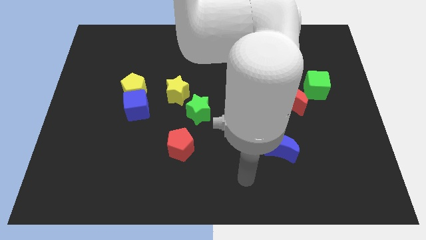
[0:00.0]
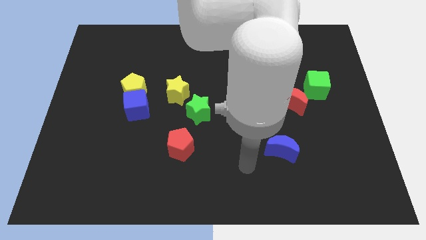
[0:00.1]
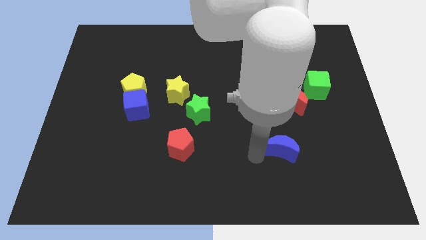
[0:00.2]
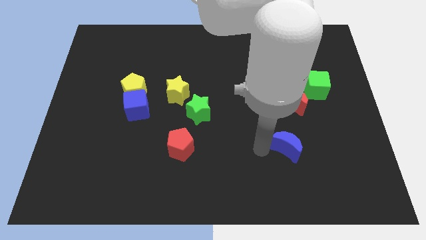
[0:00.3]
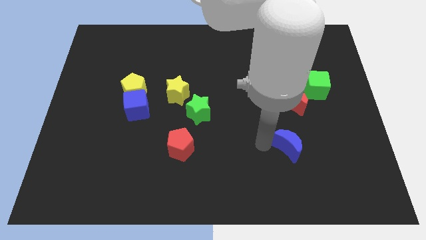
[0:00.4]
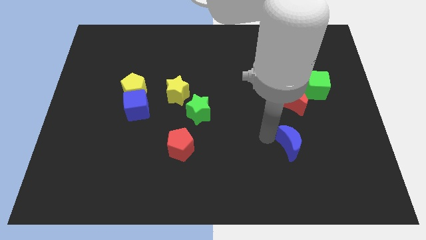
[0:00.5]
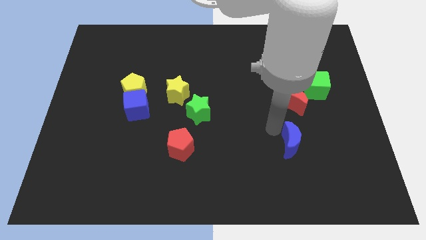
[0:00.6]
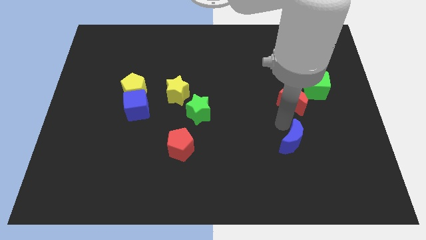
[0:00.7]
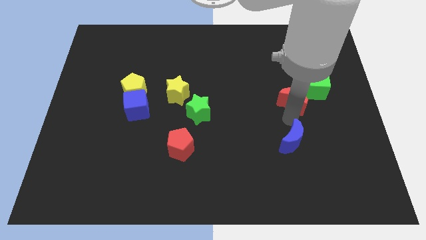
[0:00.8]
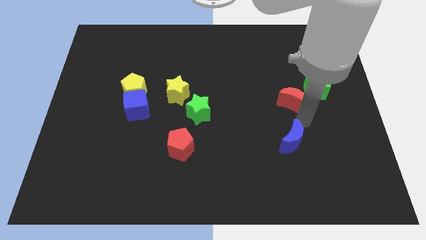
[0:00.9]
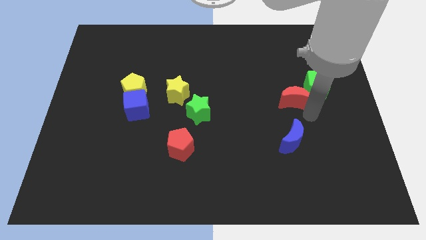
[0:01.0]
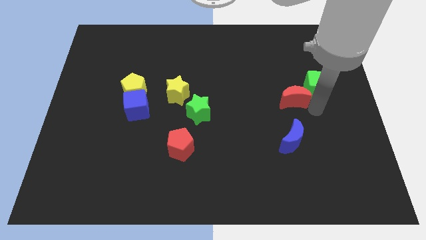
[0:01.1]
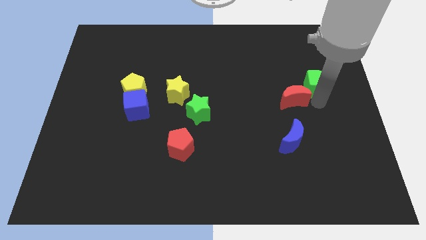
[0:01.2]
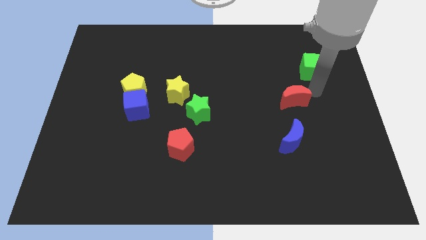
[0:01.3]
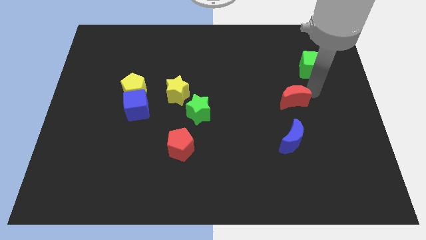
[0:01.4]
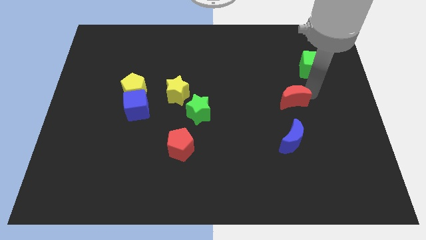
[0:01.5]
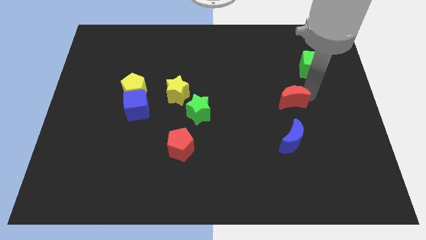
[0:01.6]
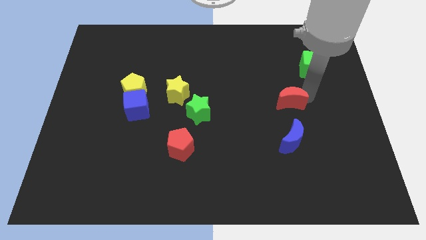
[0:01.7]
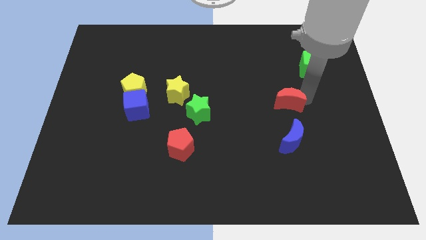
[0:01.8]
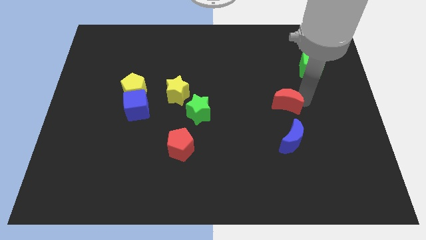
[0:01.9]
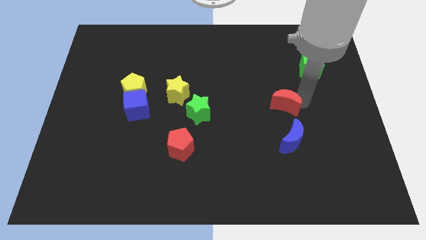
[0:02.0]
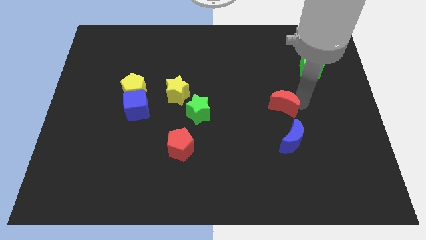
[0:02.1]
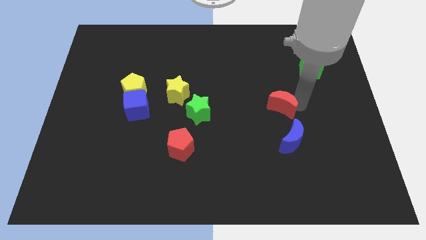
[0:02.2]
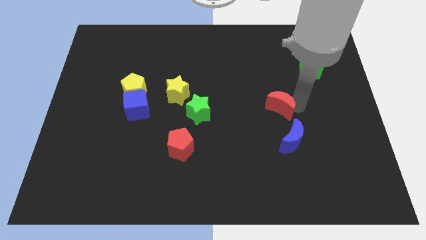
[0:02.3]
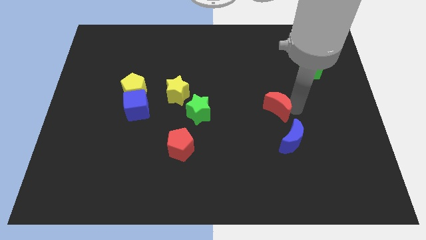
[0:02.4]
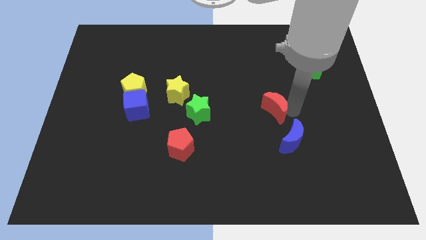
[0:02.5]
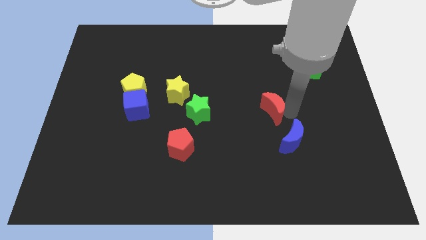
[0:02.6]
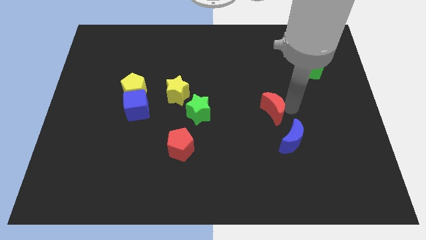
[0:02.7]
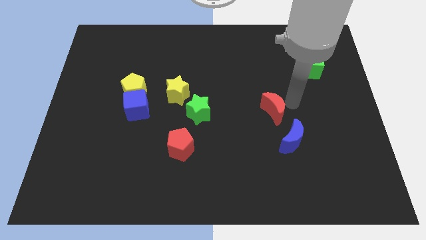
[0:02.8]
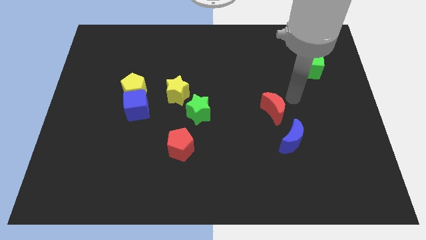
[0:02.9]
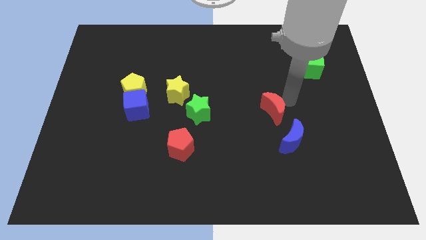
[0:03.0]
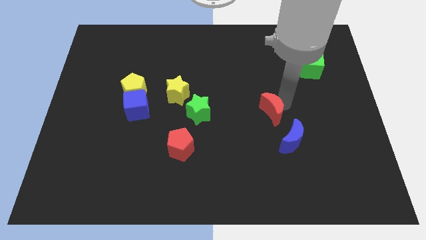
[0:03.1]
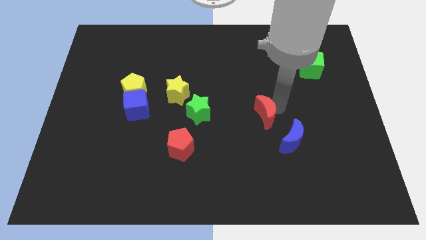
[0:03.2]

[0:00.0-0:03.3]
slightly push the red moon diagonally down and to the left

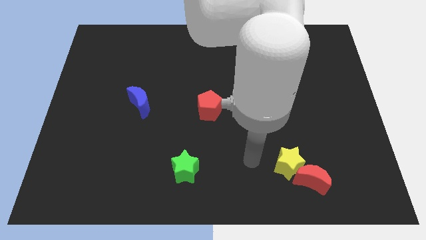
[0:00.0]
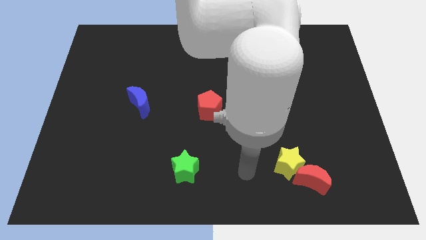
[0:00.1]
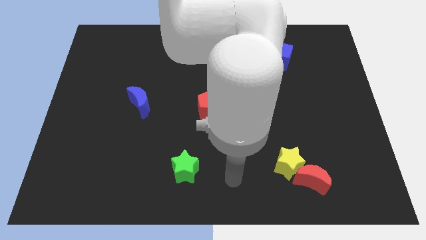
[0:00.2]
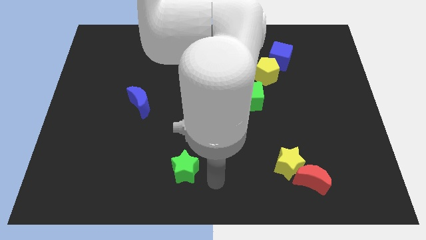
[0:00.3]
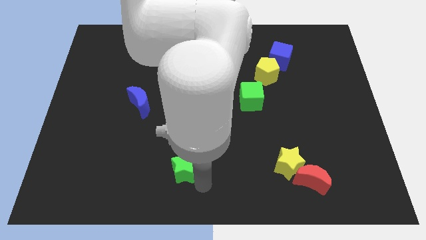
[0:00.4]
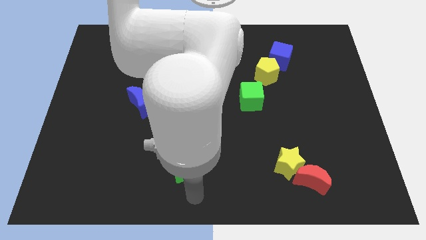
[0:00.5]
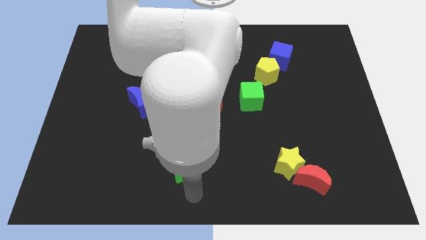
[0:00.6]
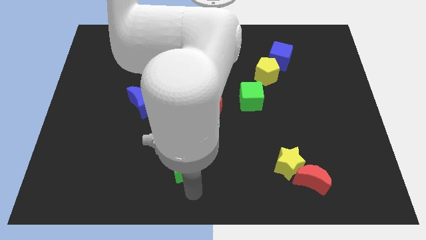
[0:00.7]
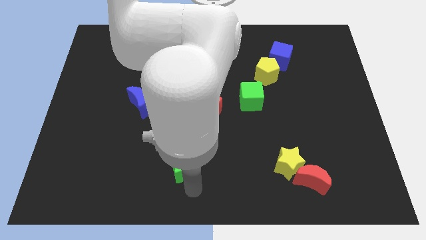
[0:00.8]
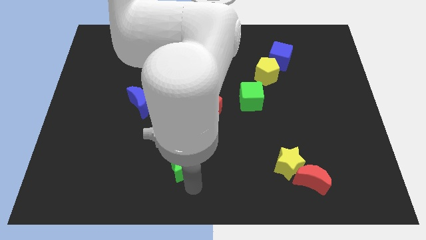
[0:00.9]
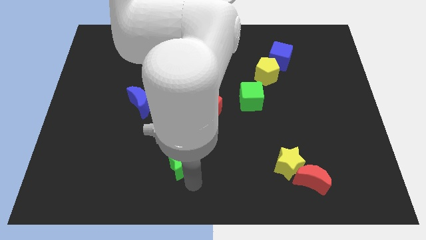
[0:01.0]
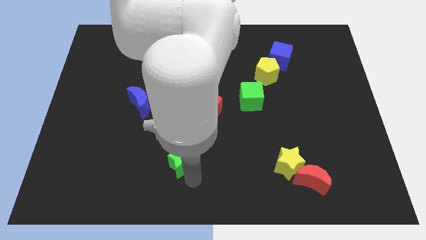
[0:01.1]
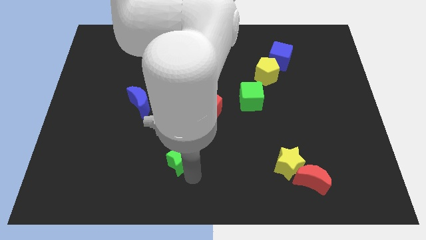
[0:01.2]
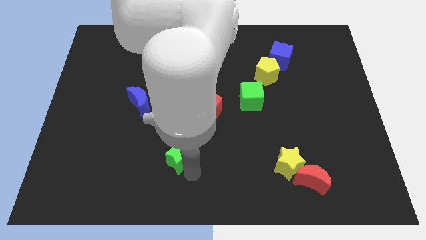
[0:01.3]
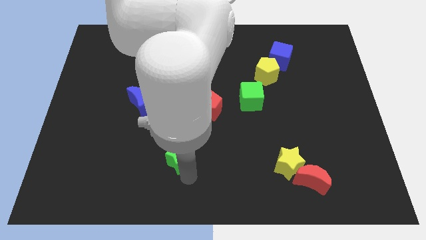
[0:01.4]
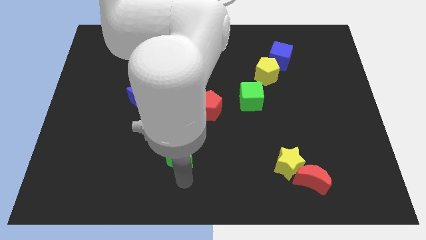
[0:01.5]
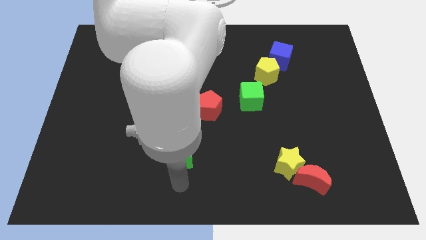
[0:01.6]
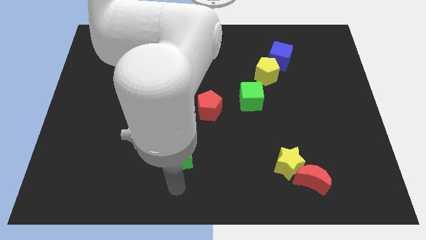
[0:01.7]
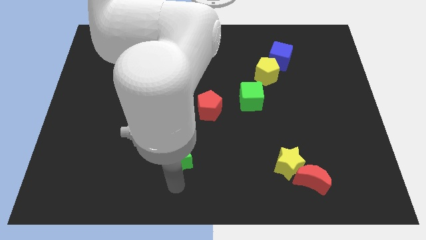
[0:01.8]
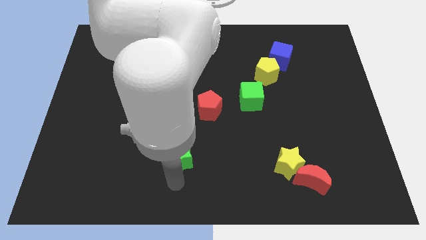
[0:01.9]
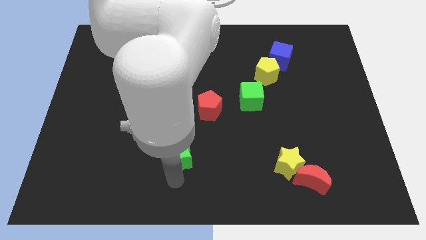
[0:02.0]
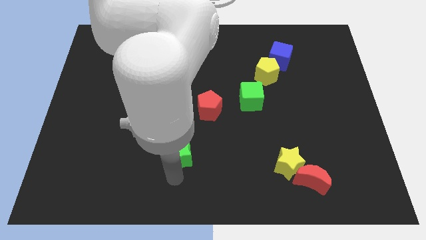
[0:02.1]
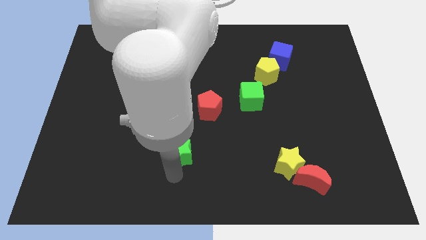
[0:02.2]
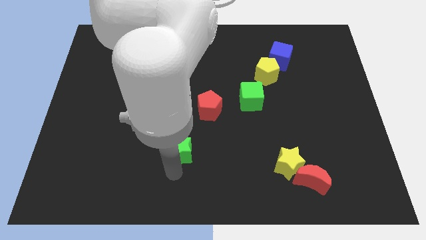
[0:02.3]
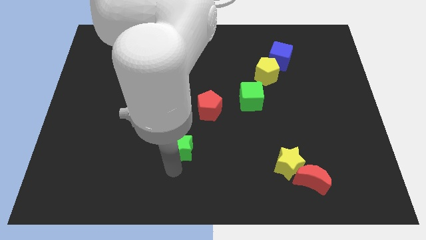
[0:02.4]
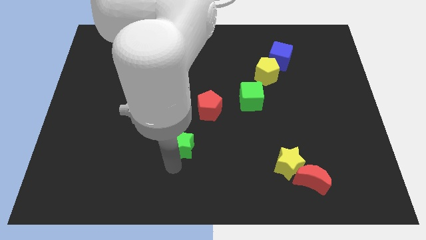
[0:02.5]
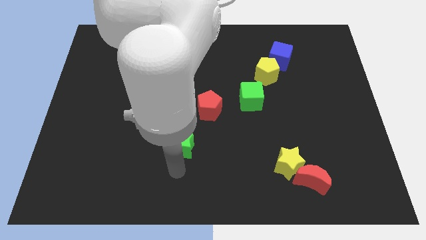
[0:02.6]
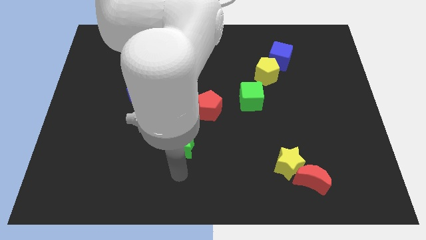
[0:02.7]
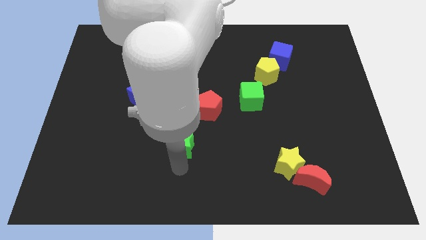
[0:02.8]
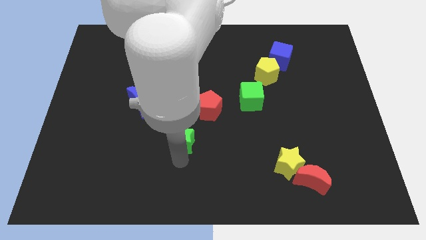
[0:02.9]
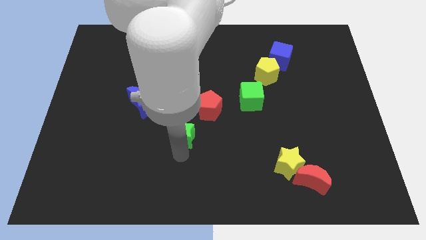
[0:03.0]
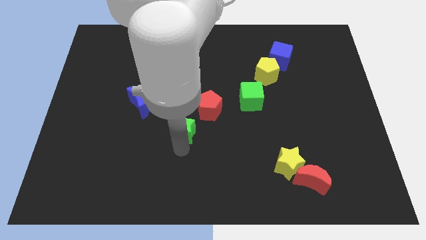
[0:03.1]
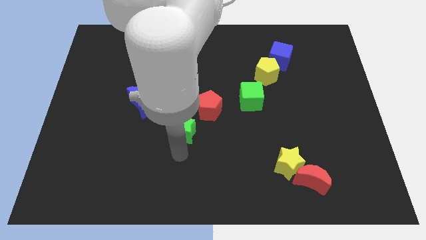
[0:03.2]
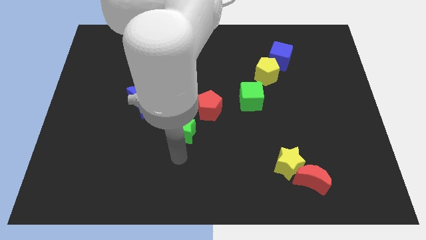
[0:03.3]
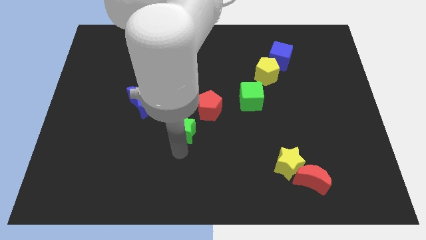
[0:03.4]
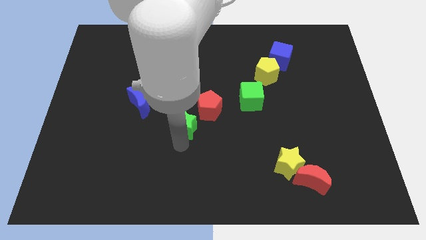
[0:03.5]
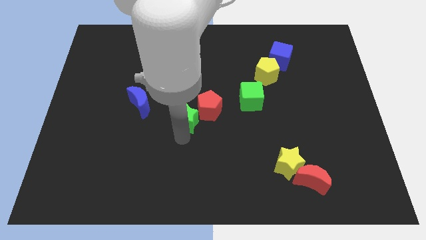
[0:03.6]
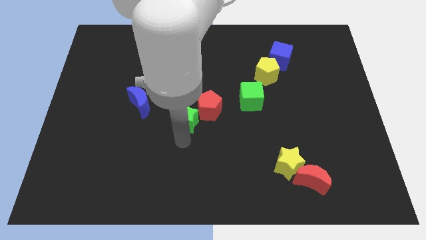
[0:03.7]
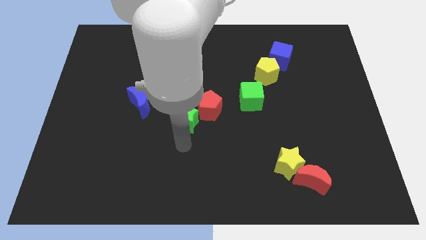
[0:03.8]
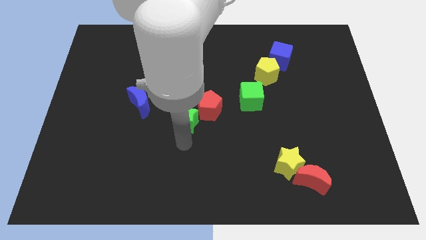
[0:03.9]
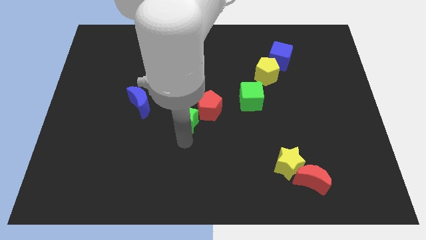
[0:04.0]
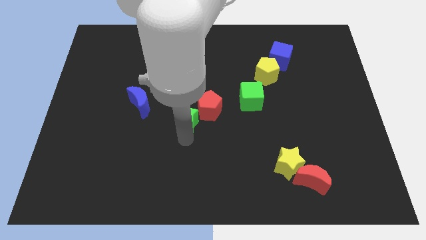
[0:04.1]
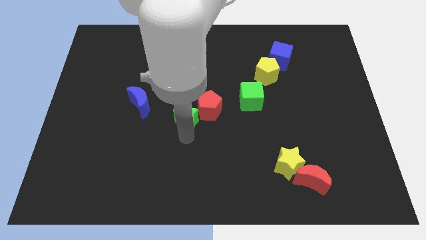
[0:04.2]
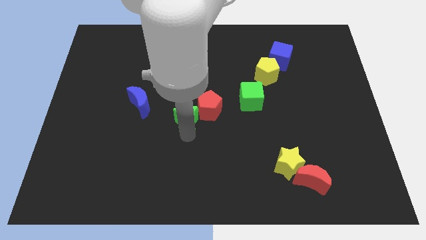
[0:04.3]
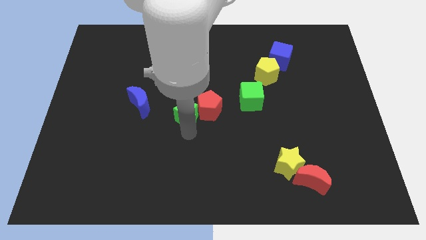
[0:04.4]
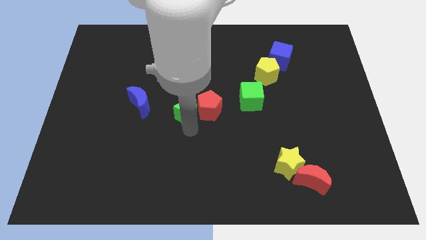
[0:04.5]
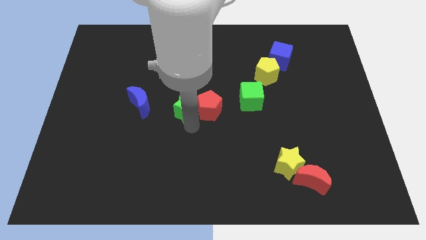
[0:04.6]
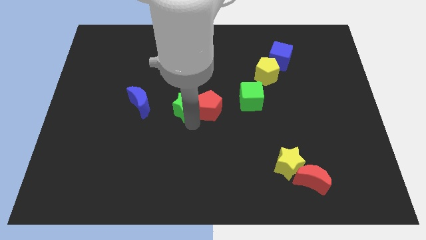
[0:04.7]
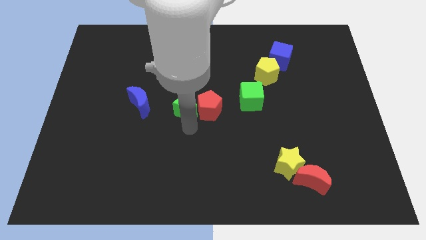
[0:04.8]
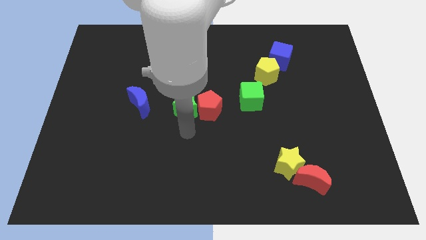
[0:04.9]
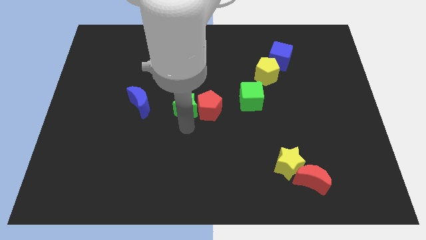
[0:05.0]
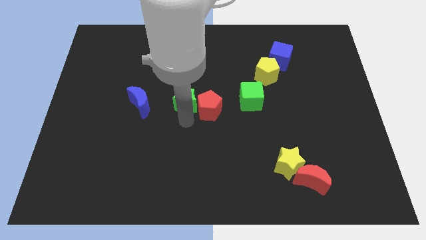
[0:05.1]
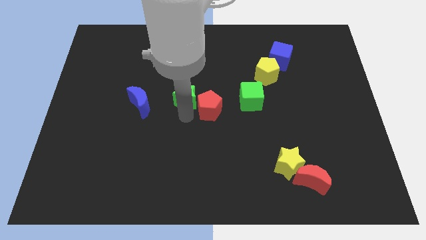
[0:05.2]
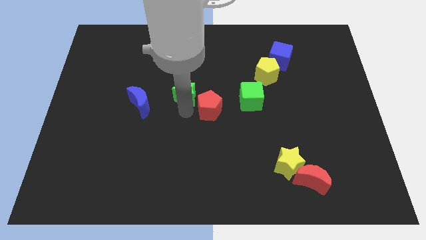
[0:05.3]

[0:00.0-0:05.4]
slide the green star up
